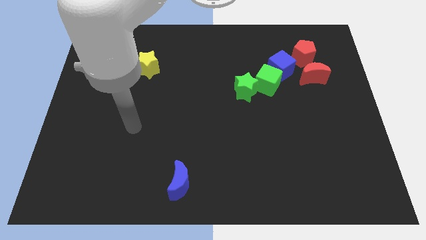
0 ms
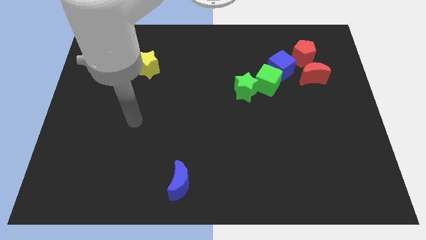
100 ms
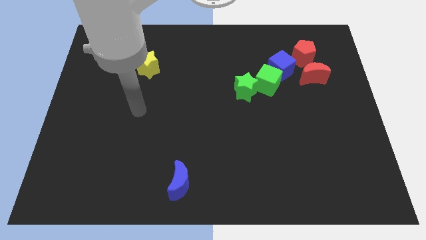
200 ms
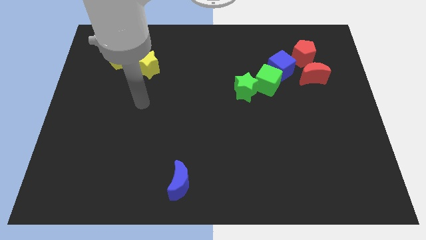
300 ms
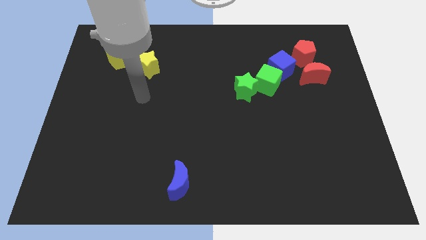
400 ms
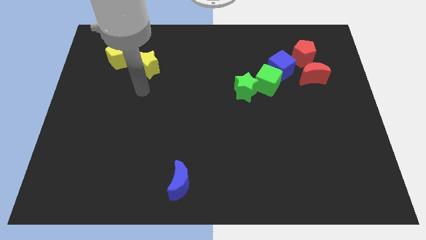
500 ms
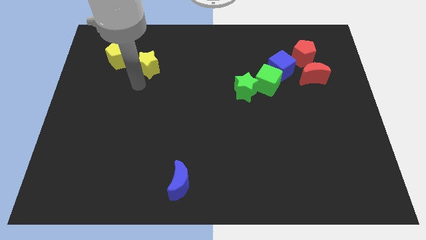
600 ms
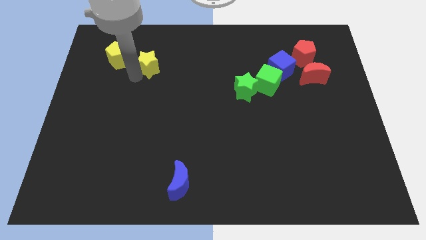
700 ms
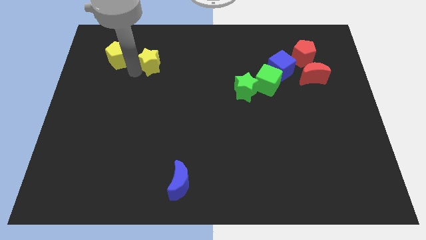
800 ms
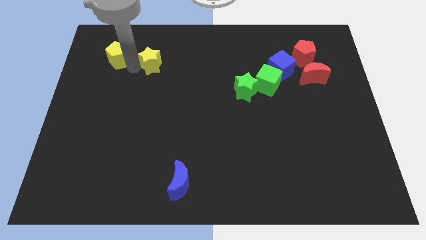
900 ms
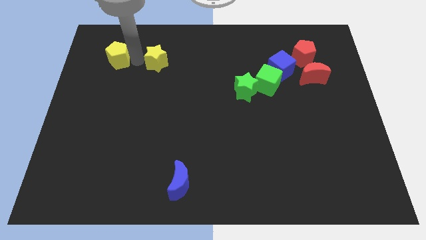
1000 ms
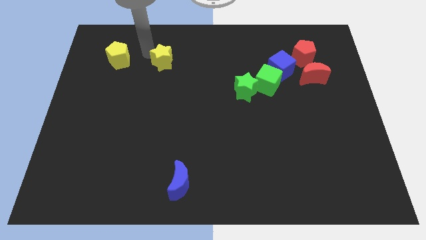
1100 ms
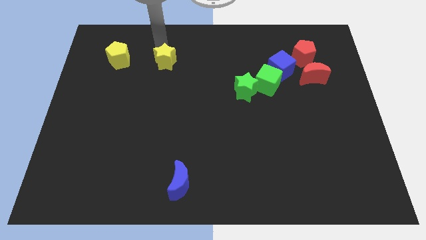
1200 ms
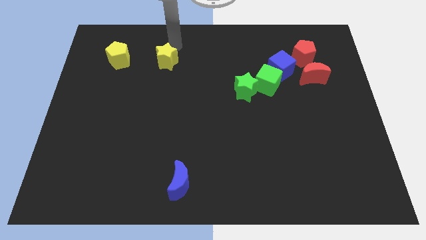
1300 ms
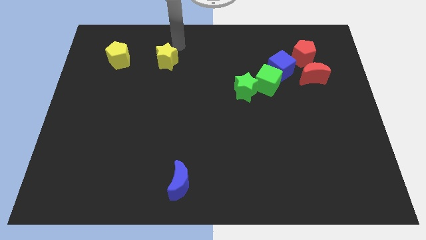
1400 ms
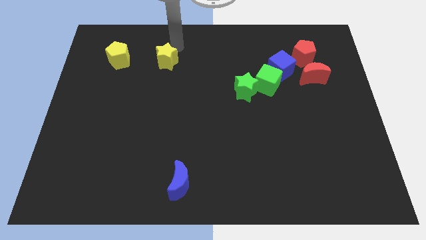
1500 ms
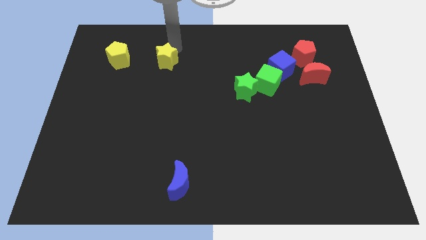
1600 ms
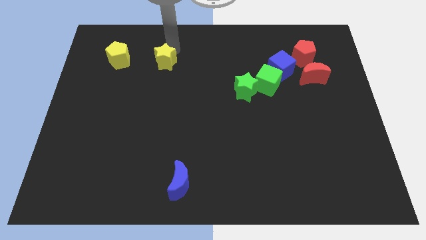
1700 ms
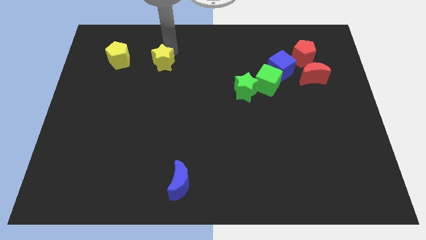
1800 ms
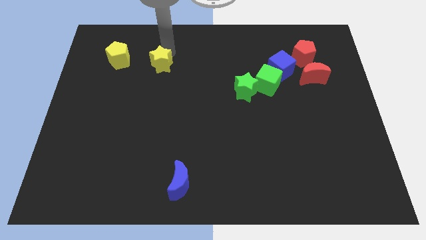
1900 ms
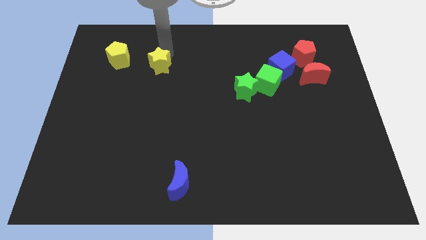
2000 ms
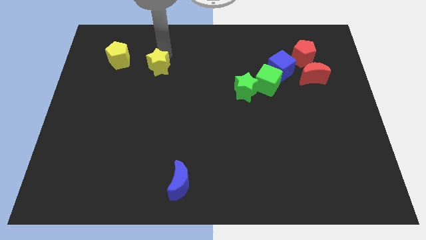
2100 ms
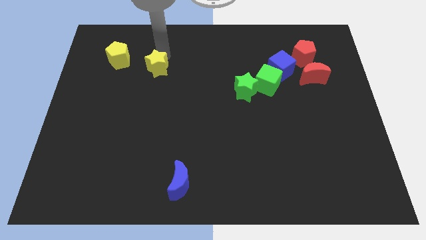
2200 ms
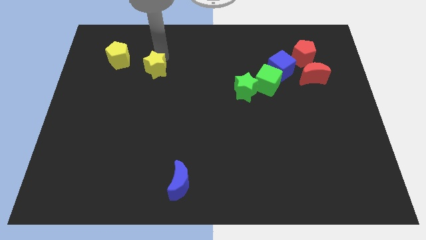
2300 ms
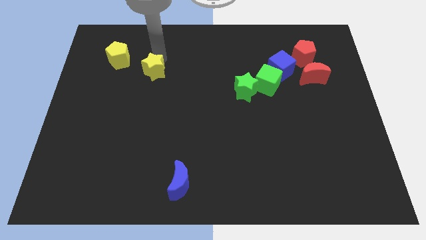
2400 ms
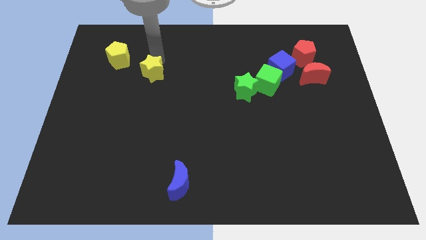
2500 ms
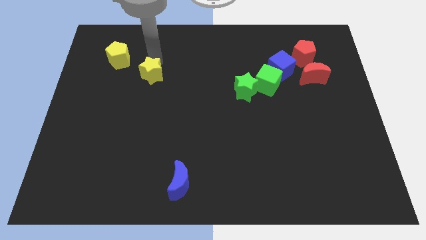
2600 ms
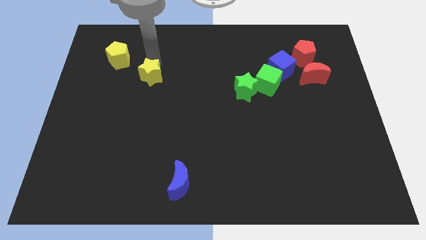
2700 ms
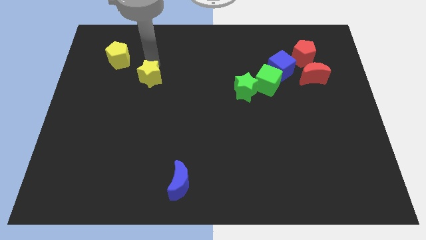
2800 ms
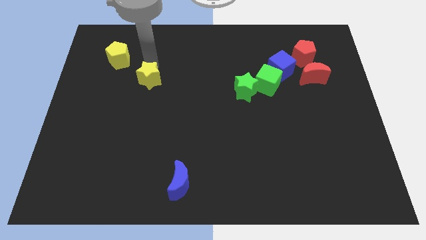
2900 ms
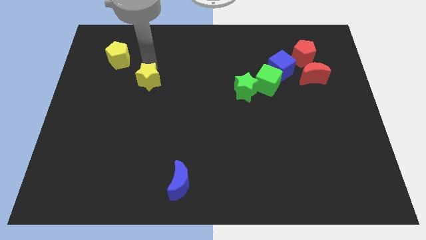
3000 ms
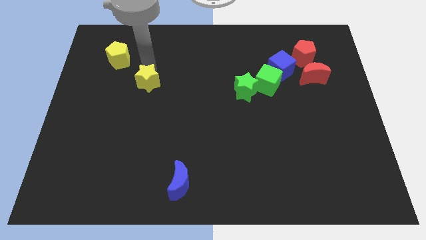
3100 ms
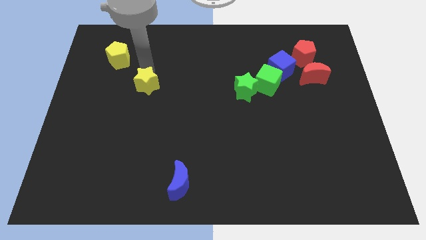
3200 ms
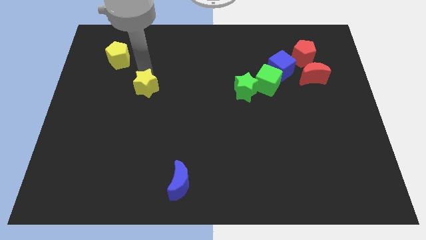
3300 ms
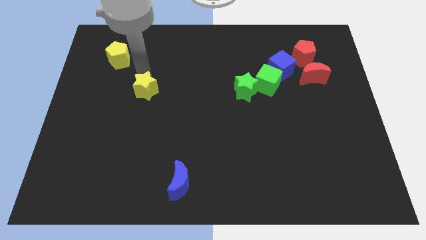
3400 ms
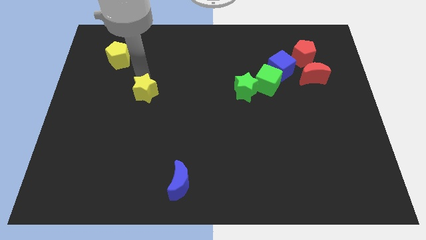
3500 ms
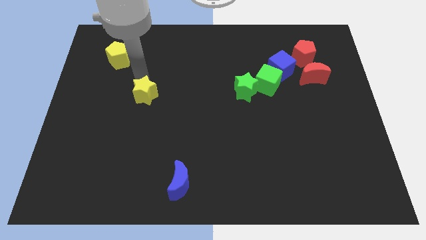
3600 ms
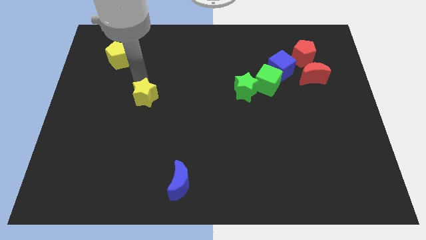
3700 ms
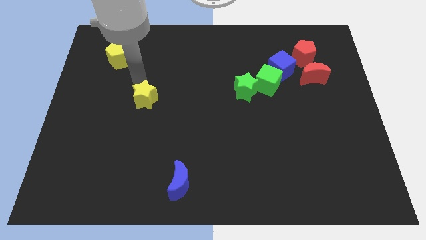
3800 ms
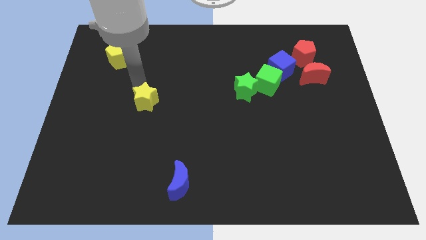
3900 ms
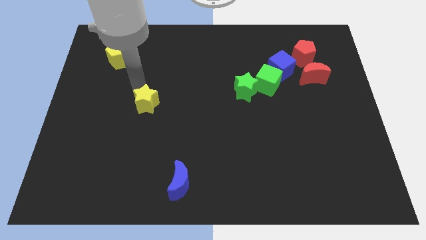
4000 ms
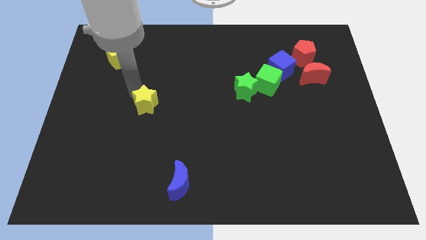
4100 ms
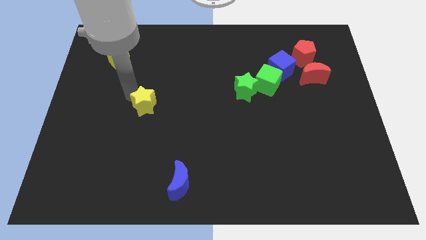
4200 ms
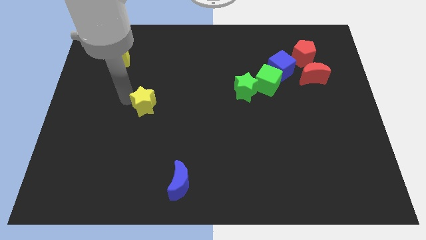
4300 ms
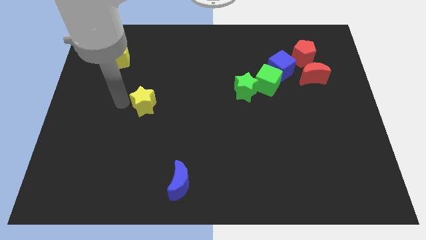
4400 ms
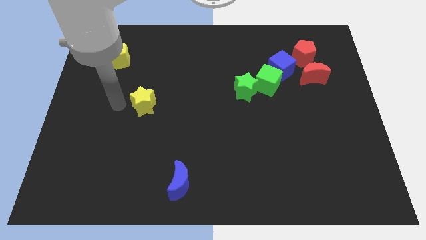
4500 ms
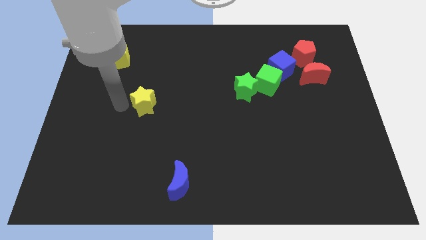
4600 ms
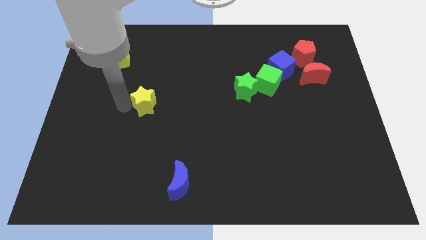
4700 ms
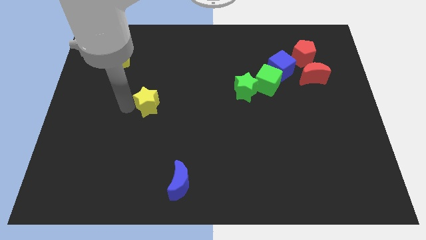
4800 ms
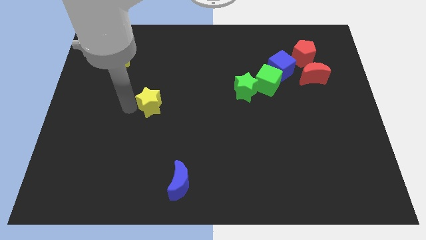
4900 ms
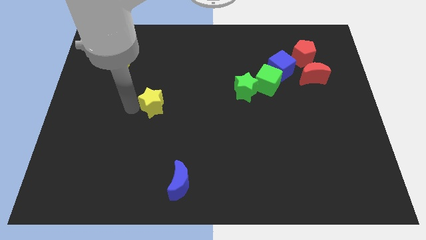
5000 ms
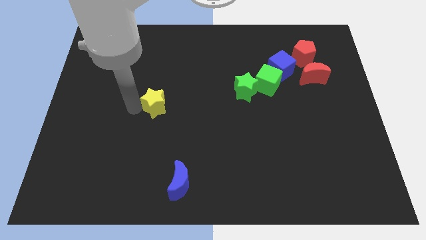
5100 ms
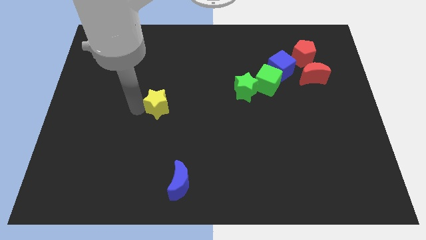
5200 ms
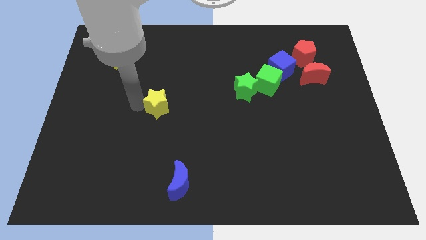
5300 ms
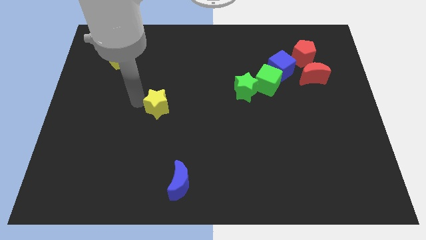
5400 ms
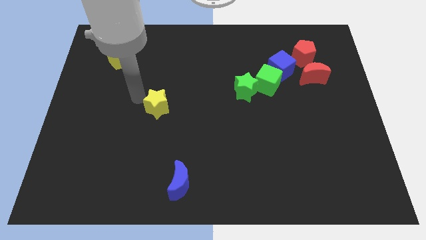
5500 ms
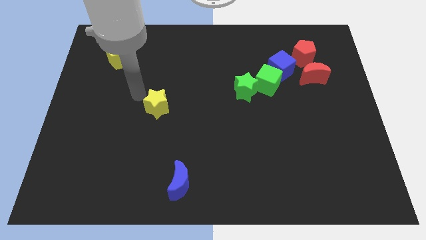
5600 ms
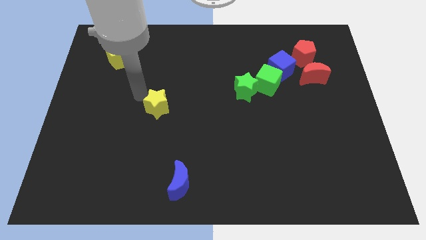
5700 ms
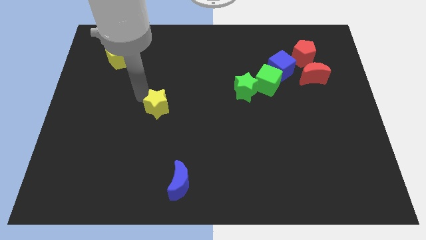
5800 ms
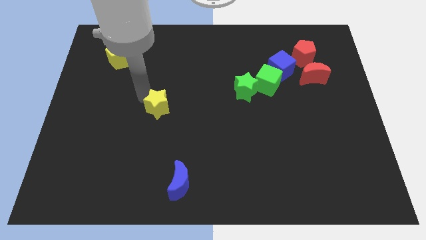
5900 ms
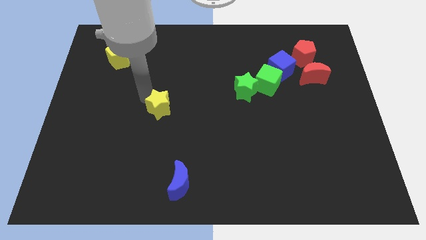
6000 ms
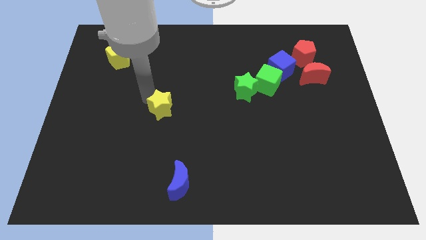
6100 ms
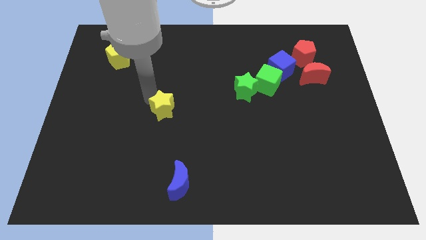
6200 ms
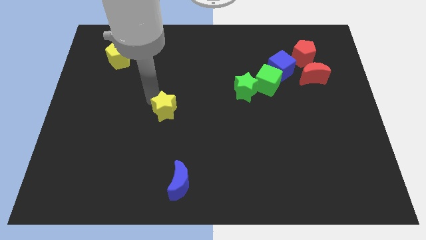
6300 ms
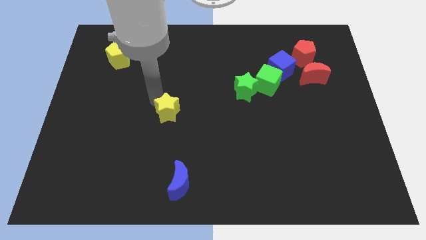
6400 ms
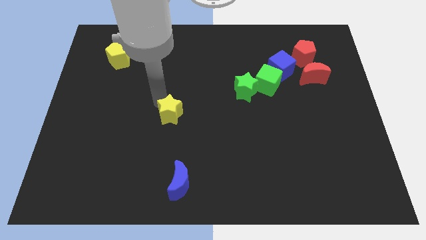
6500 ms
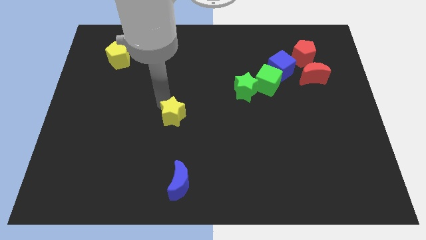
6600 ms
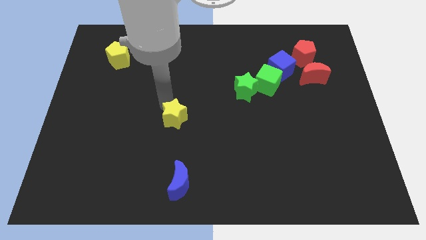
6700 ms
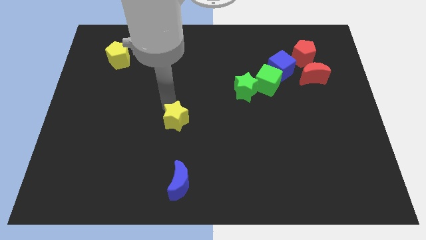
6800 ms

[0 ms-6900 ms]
push the yellow star to the top of the blue moon
